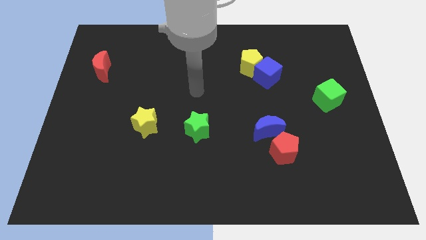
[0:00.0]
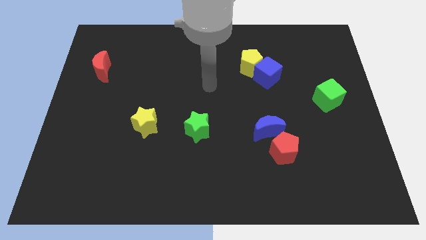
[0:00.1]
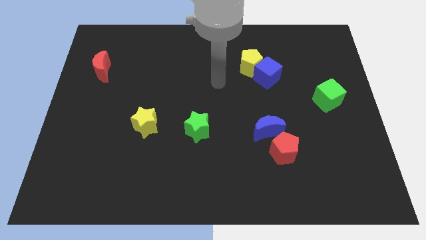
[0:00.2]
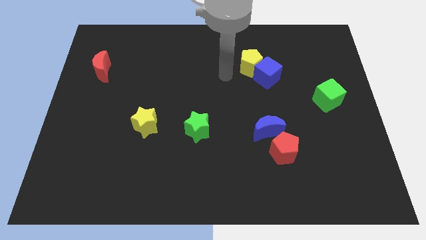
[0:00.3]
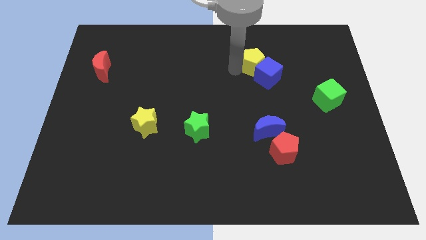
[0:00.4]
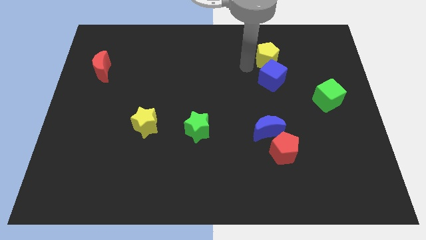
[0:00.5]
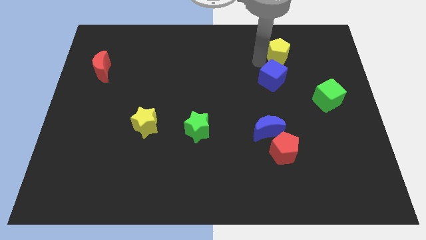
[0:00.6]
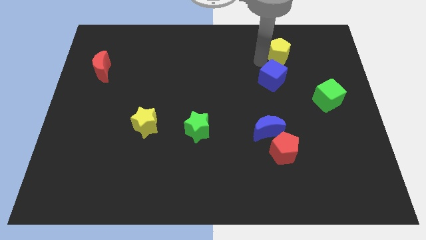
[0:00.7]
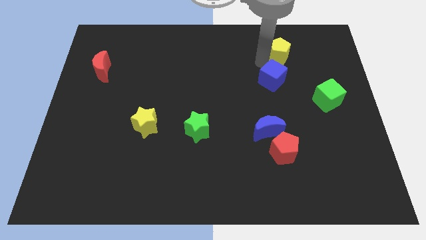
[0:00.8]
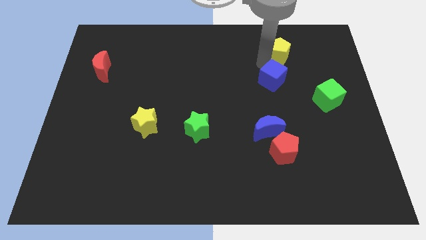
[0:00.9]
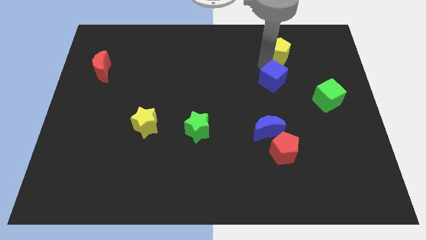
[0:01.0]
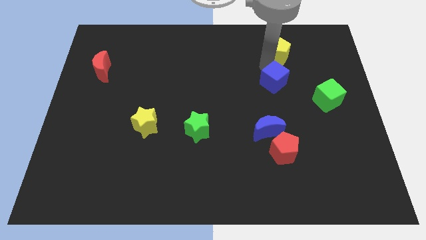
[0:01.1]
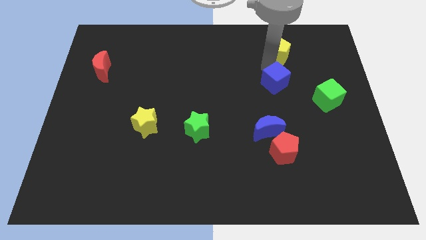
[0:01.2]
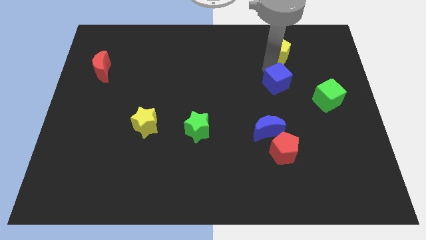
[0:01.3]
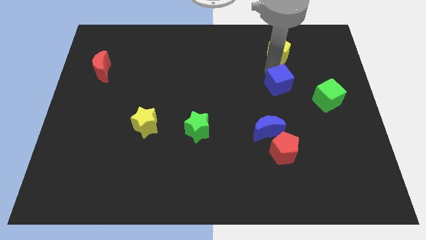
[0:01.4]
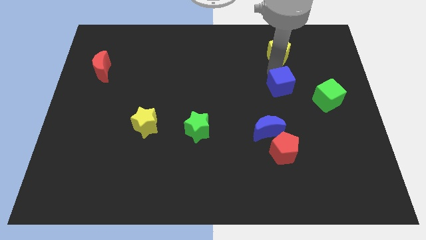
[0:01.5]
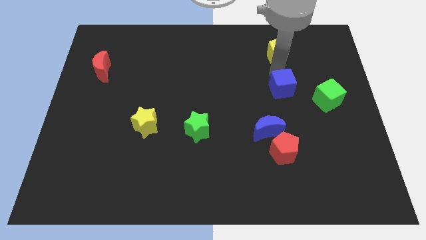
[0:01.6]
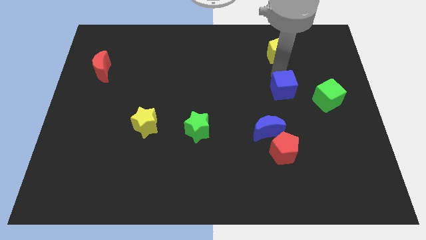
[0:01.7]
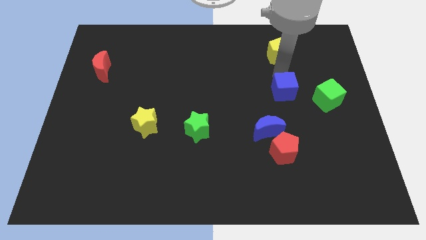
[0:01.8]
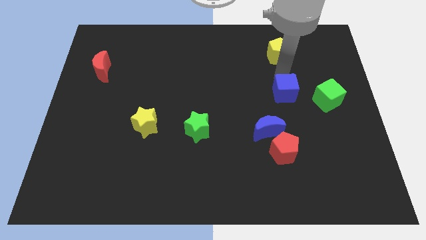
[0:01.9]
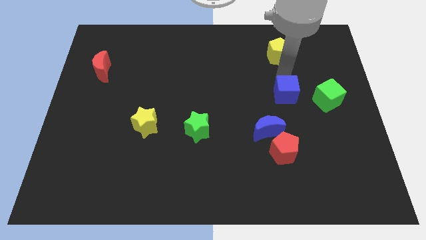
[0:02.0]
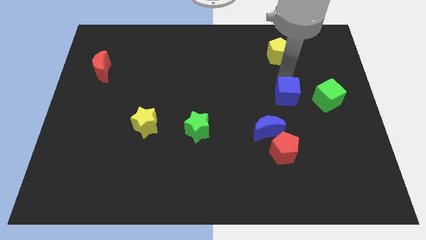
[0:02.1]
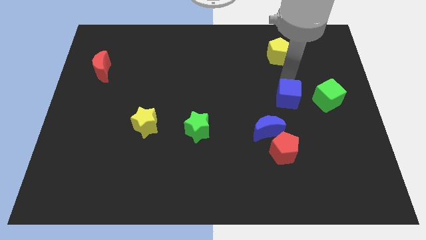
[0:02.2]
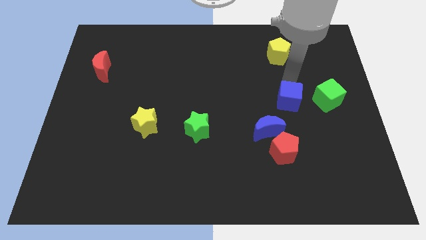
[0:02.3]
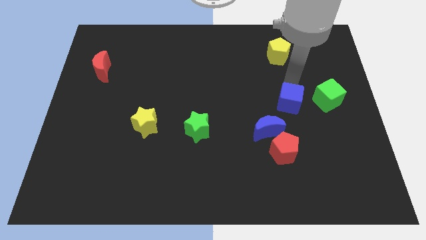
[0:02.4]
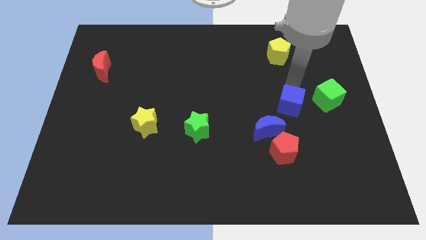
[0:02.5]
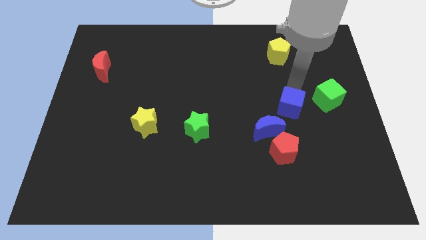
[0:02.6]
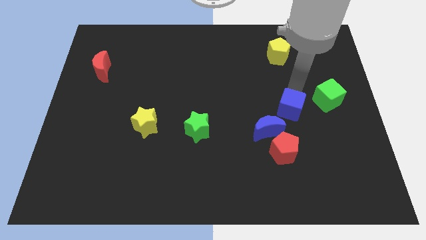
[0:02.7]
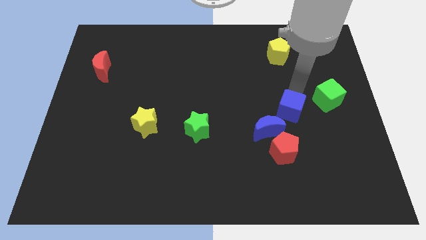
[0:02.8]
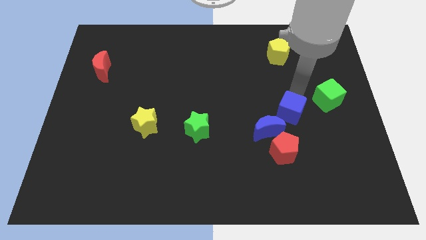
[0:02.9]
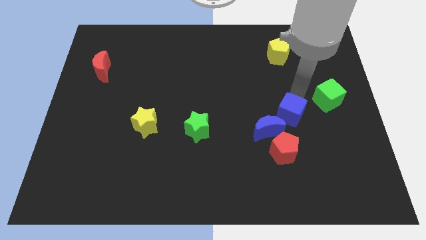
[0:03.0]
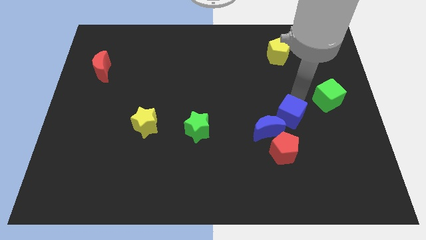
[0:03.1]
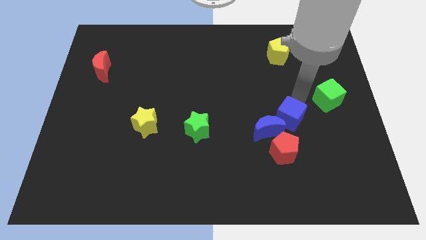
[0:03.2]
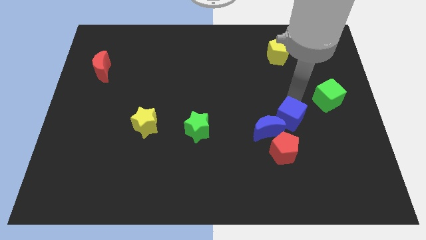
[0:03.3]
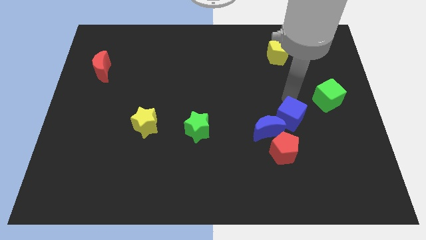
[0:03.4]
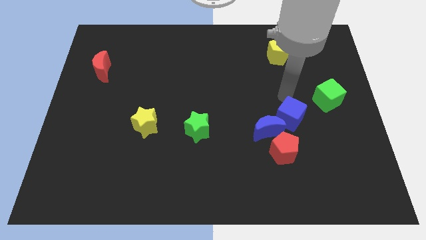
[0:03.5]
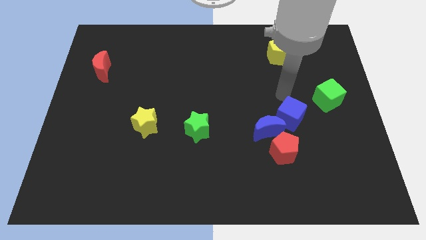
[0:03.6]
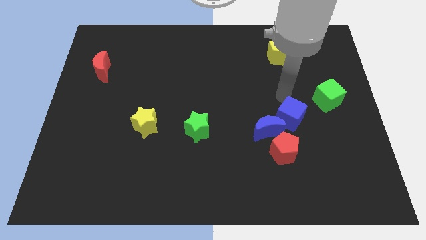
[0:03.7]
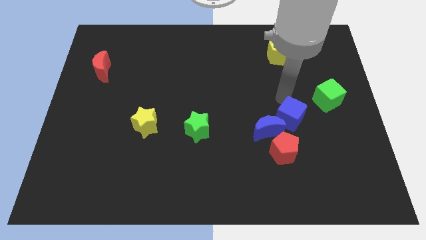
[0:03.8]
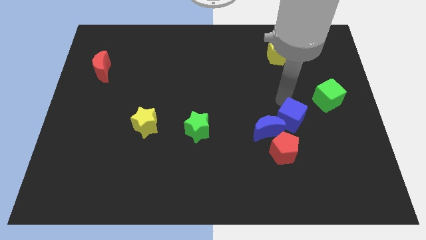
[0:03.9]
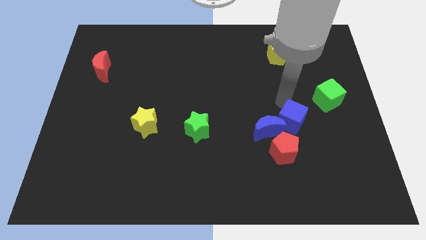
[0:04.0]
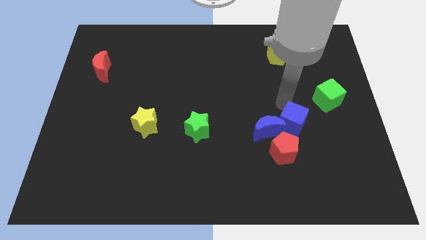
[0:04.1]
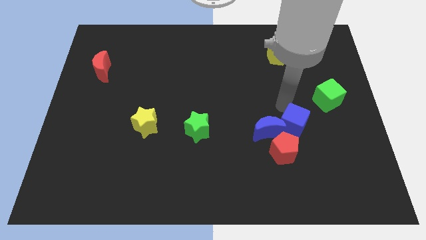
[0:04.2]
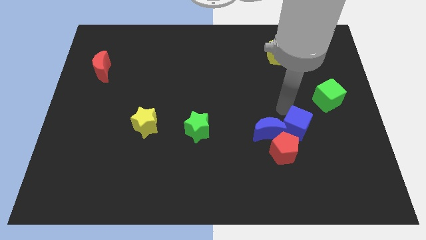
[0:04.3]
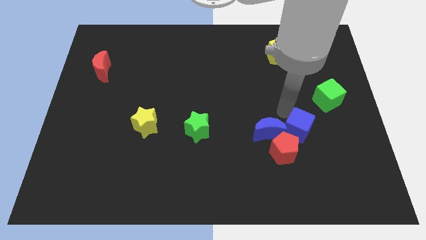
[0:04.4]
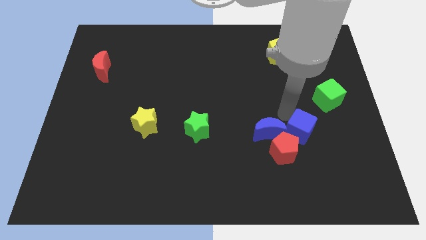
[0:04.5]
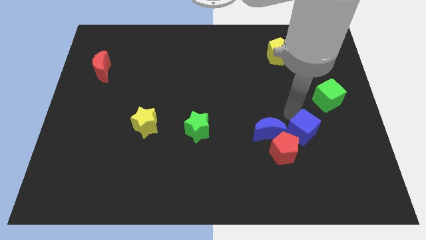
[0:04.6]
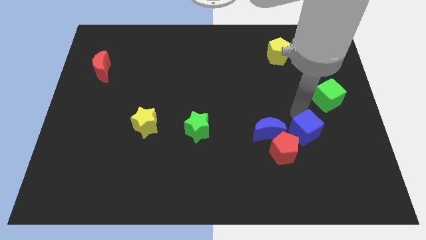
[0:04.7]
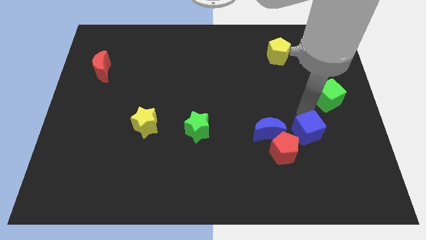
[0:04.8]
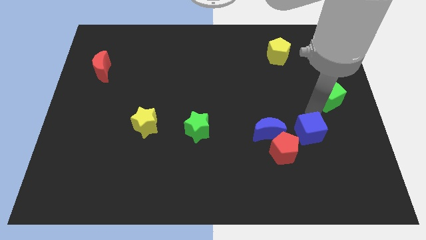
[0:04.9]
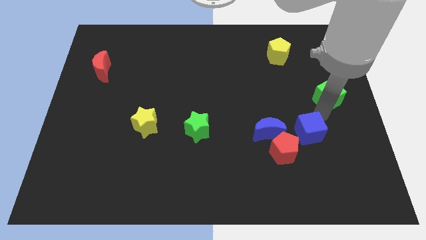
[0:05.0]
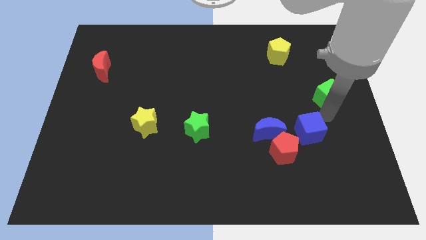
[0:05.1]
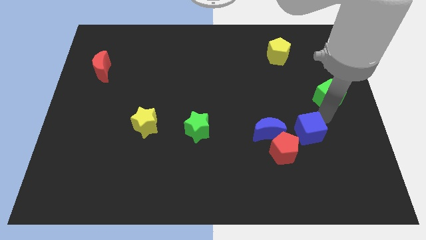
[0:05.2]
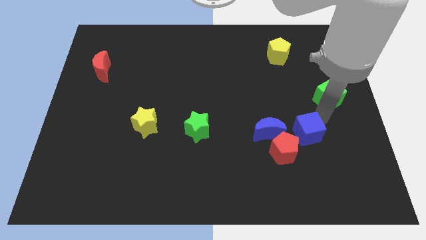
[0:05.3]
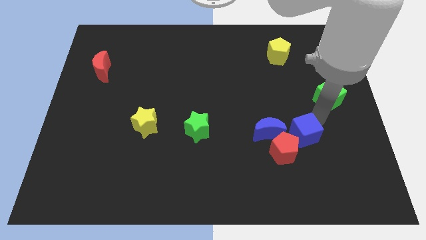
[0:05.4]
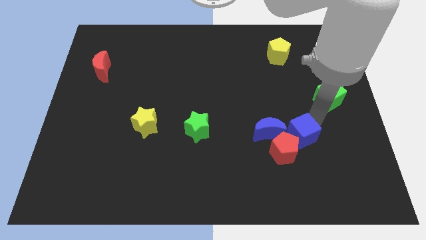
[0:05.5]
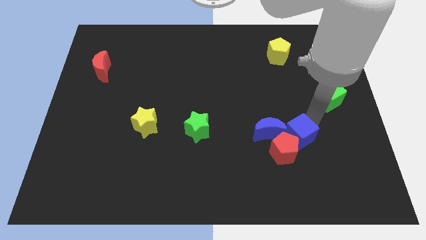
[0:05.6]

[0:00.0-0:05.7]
push the blue cube close to the red pentagon
